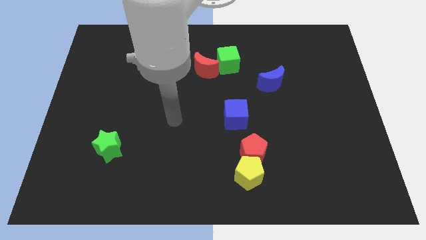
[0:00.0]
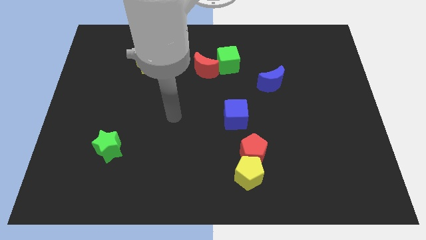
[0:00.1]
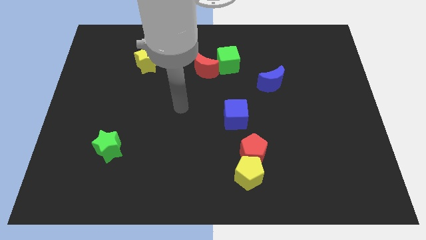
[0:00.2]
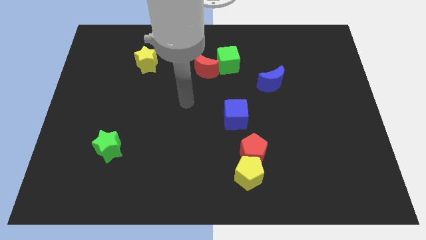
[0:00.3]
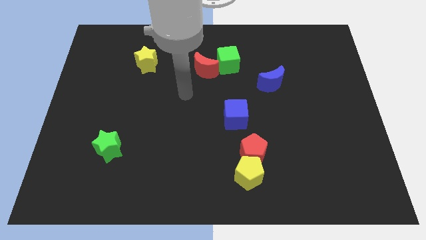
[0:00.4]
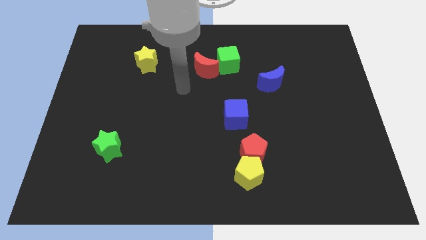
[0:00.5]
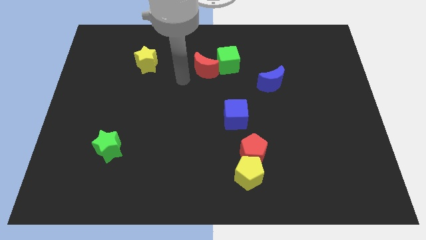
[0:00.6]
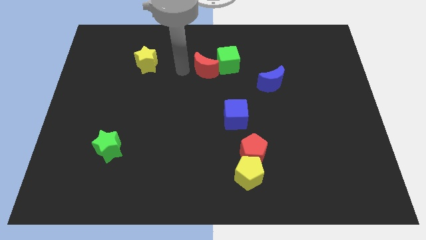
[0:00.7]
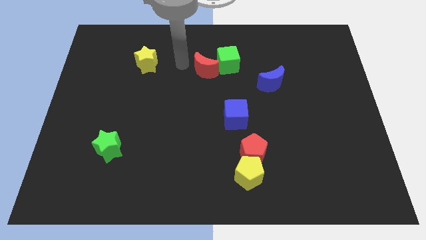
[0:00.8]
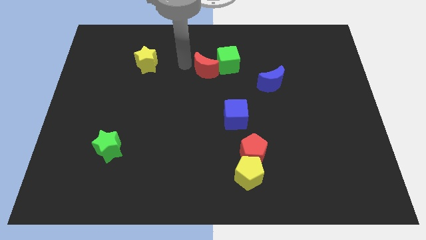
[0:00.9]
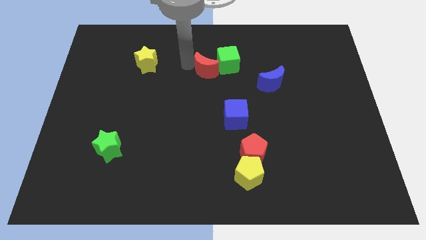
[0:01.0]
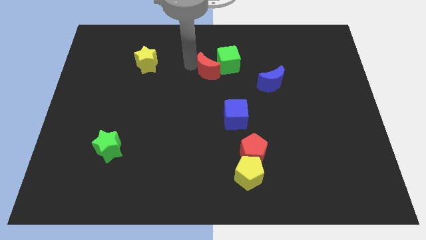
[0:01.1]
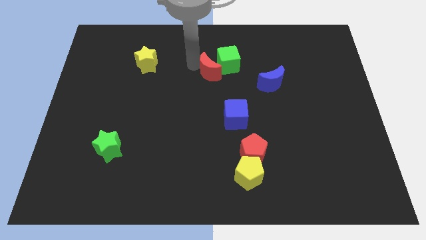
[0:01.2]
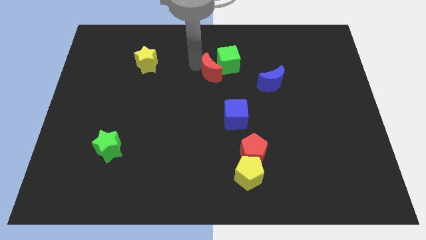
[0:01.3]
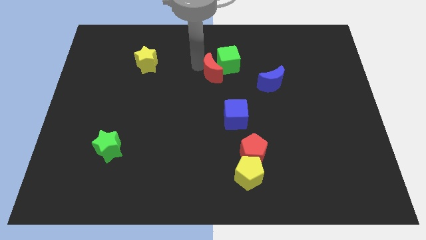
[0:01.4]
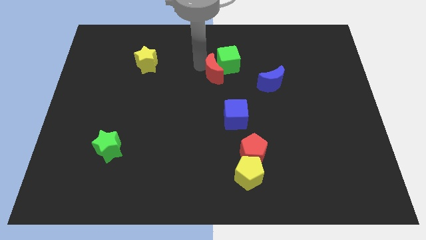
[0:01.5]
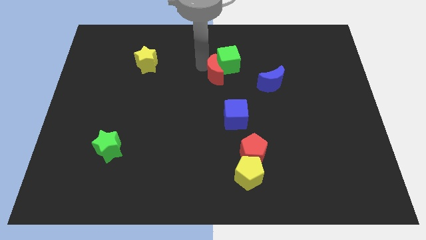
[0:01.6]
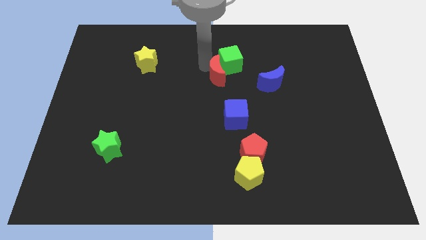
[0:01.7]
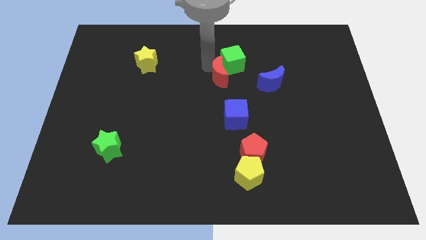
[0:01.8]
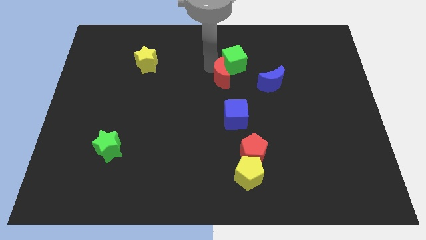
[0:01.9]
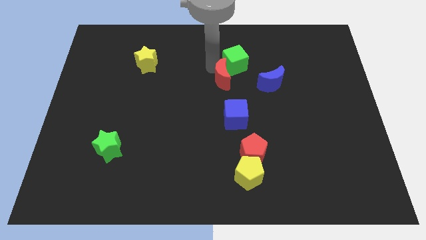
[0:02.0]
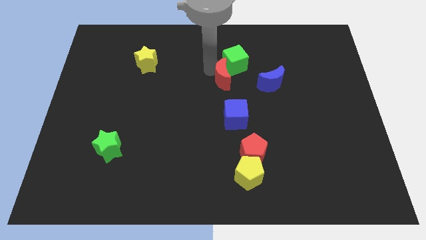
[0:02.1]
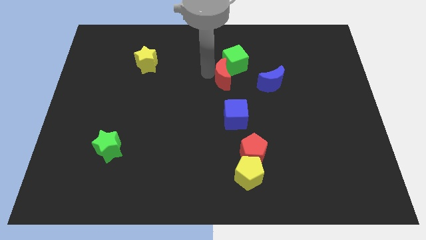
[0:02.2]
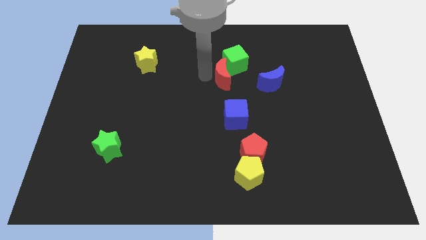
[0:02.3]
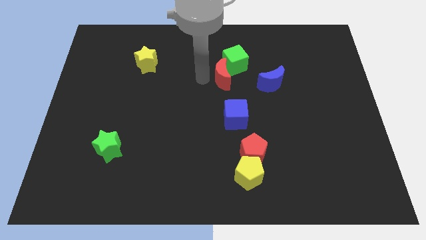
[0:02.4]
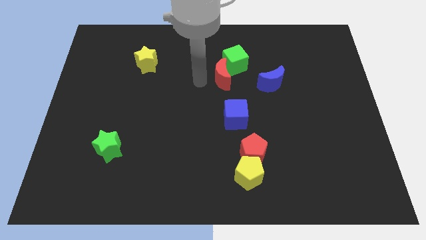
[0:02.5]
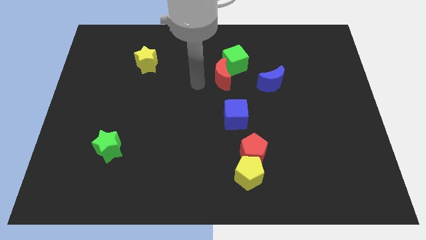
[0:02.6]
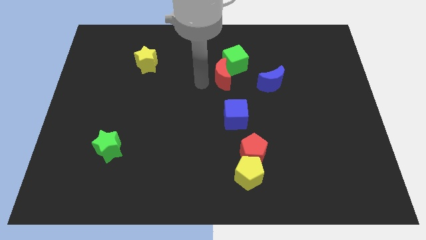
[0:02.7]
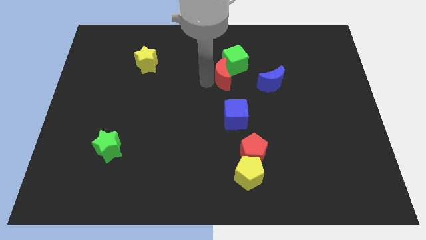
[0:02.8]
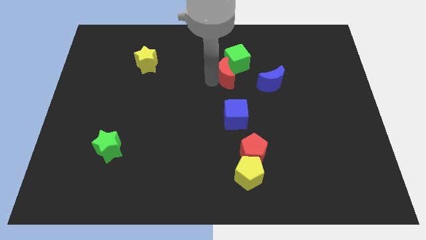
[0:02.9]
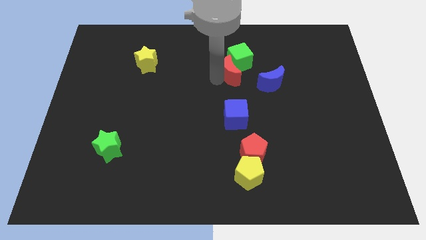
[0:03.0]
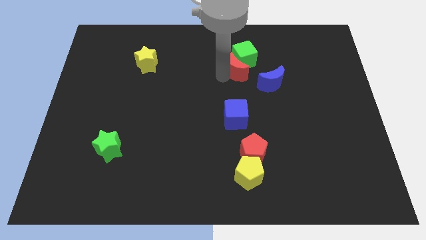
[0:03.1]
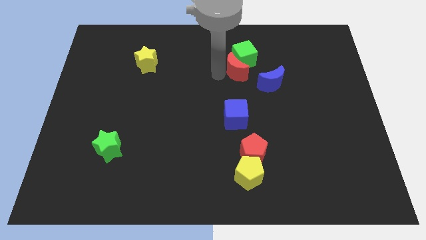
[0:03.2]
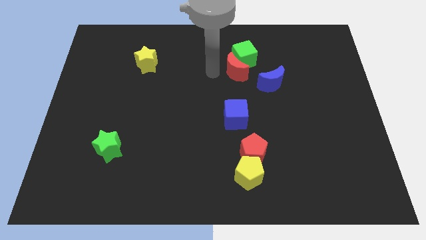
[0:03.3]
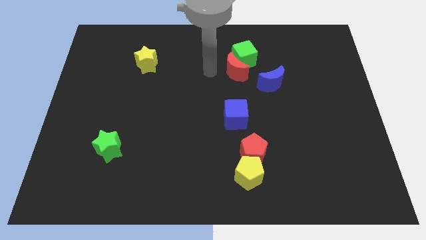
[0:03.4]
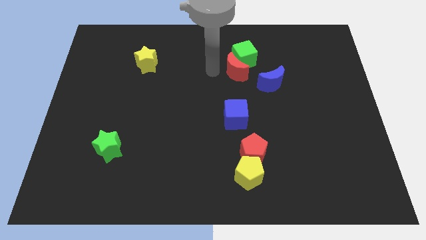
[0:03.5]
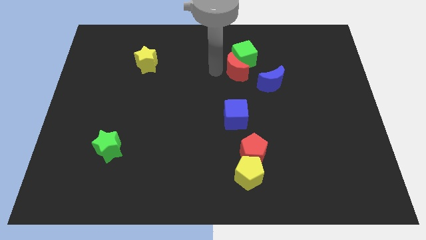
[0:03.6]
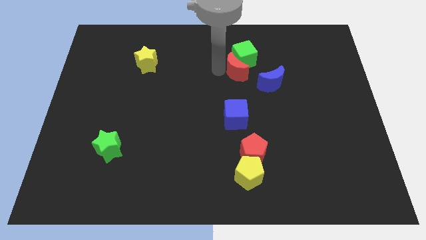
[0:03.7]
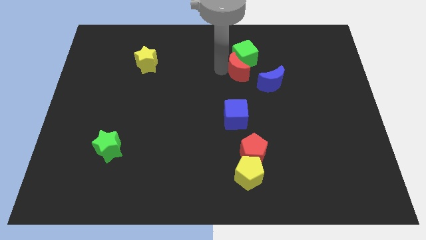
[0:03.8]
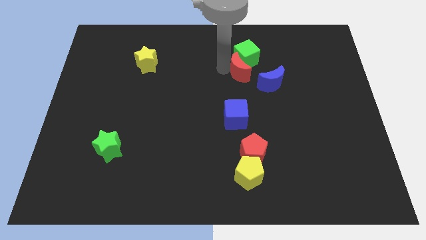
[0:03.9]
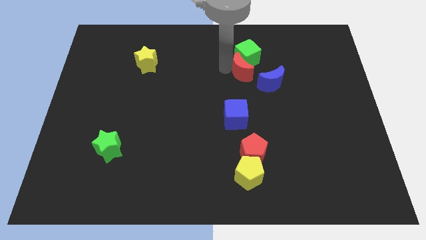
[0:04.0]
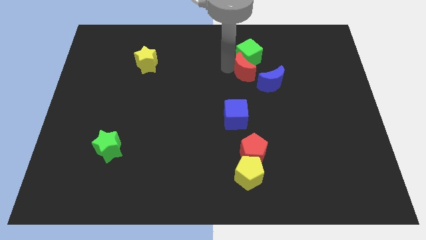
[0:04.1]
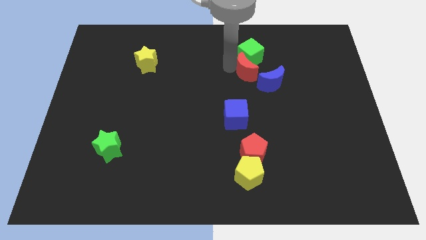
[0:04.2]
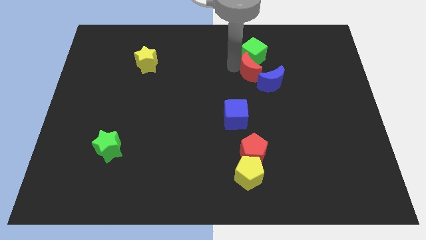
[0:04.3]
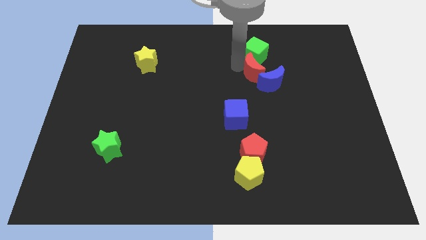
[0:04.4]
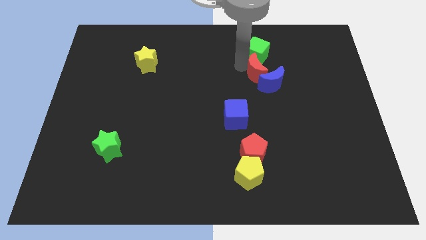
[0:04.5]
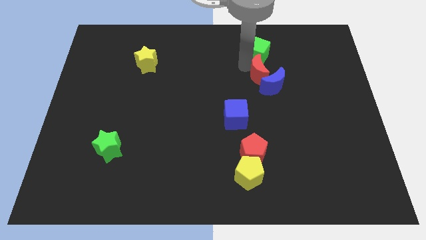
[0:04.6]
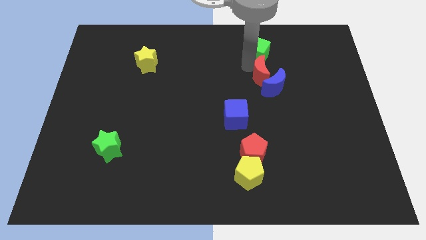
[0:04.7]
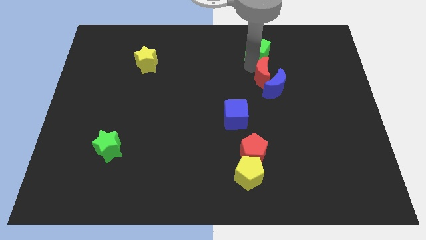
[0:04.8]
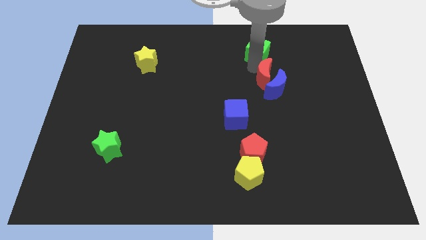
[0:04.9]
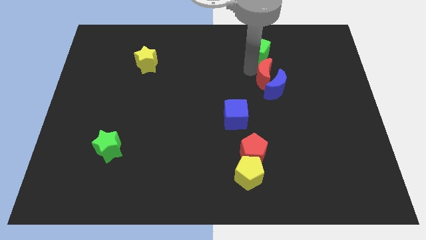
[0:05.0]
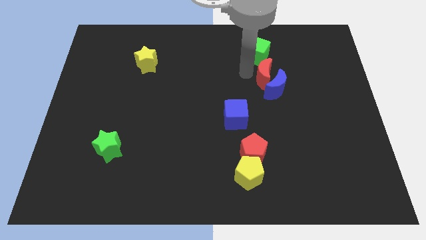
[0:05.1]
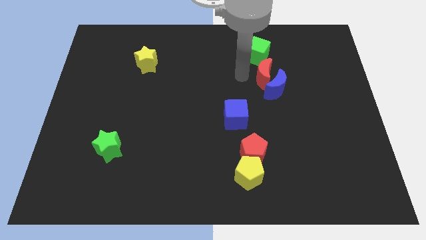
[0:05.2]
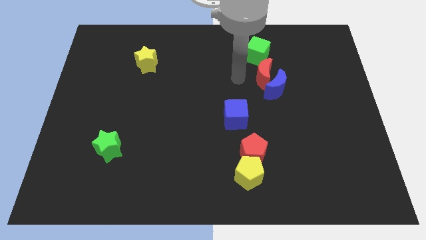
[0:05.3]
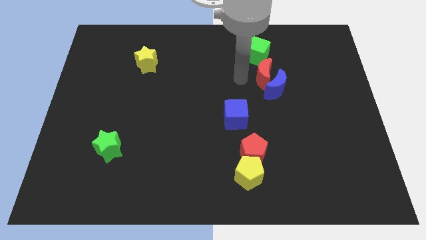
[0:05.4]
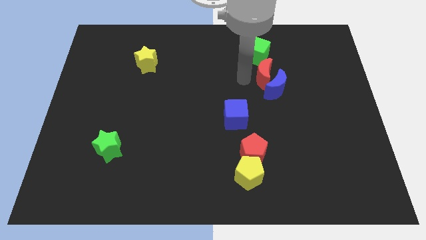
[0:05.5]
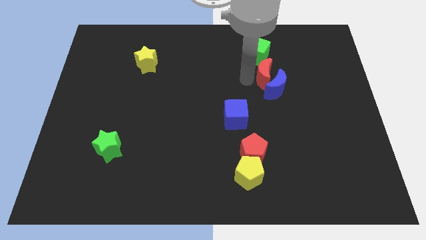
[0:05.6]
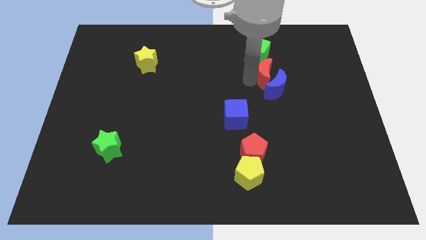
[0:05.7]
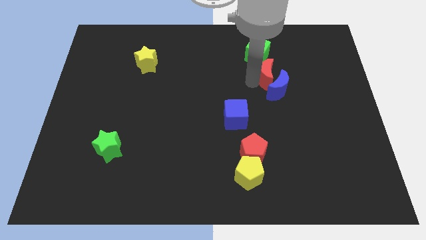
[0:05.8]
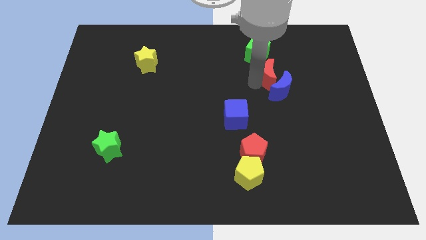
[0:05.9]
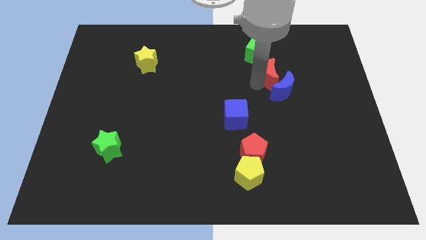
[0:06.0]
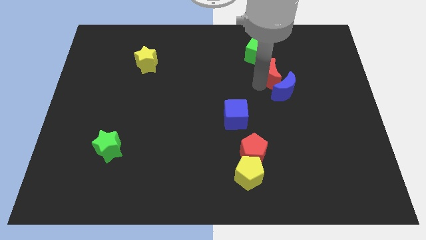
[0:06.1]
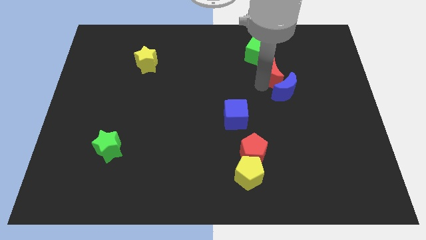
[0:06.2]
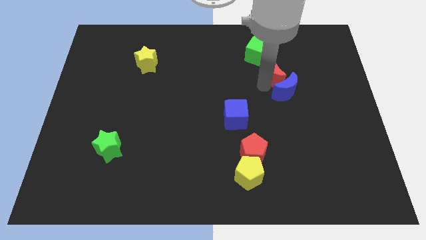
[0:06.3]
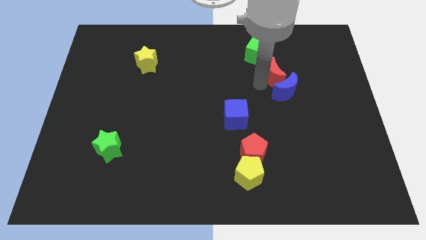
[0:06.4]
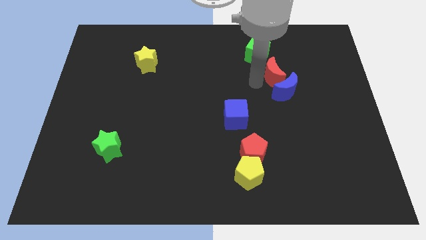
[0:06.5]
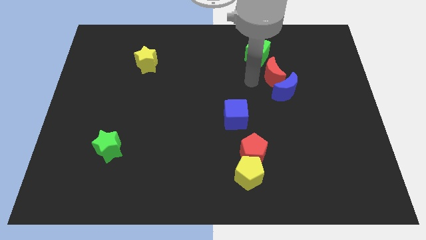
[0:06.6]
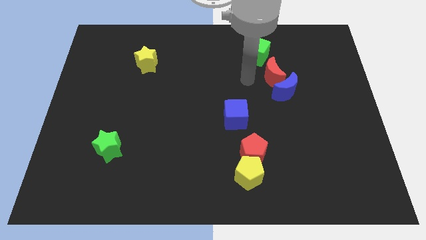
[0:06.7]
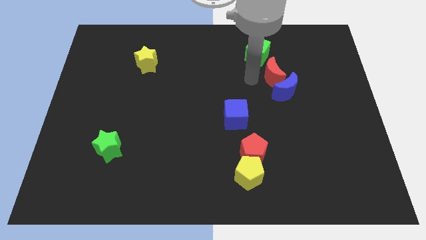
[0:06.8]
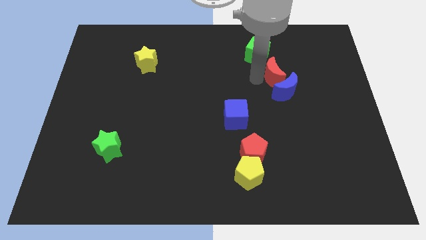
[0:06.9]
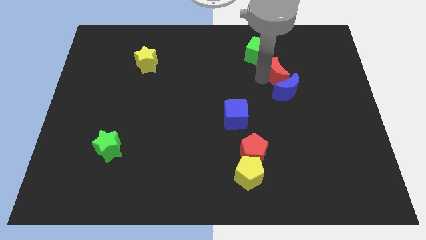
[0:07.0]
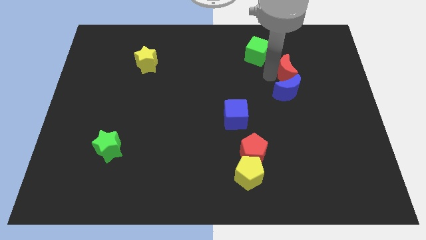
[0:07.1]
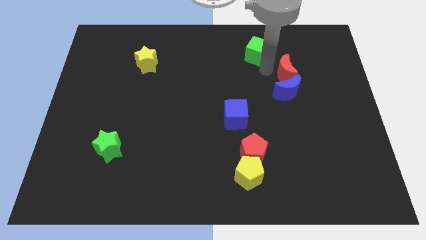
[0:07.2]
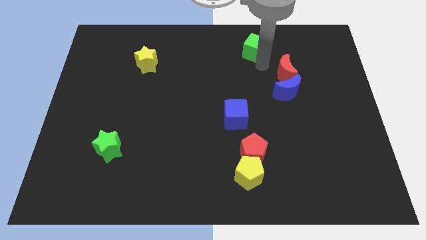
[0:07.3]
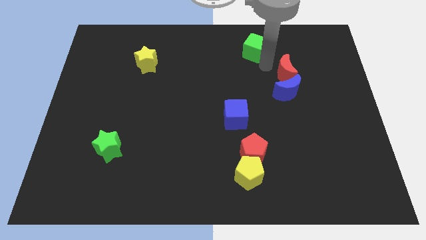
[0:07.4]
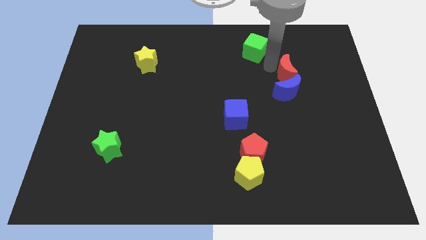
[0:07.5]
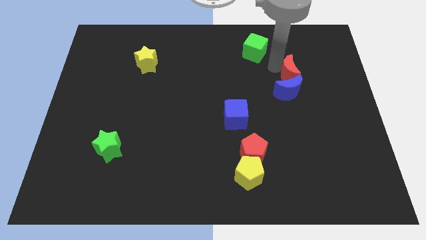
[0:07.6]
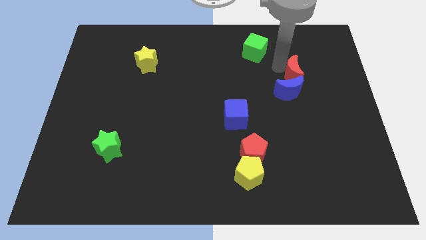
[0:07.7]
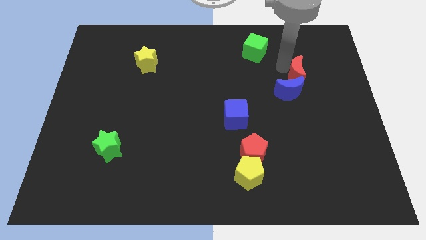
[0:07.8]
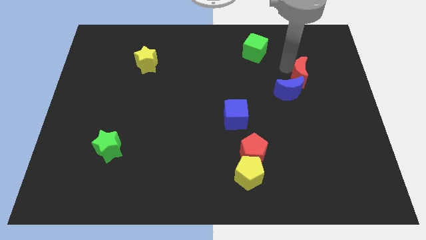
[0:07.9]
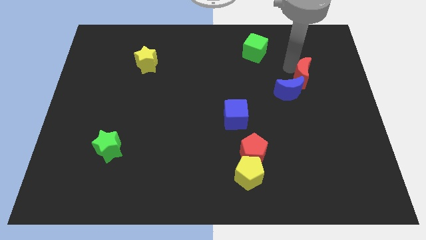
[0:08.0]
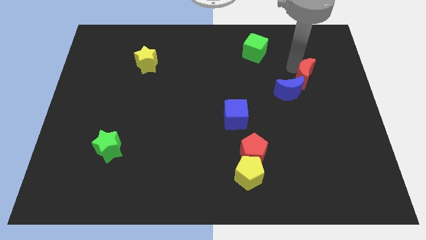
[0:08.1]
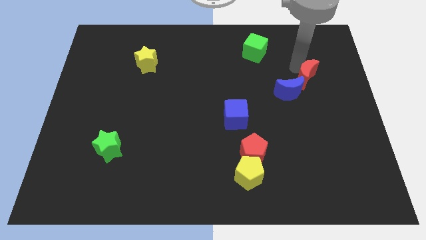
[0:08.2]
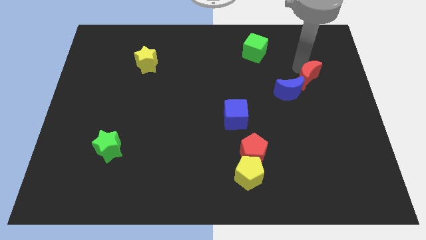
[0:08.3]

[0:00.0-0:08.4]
push the red moon right of the blue moon
